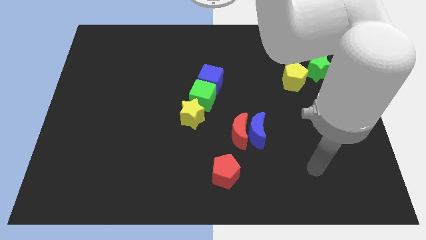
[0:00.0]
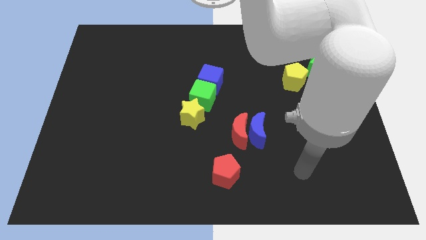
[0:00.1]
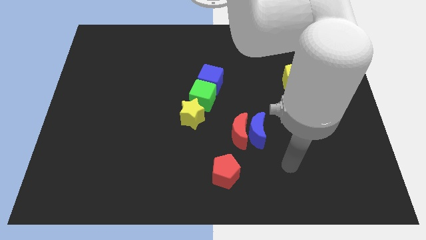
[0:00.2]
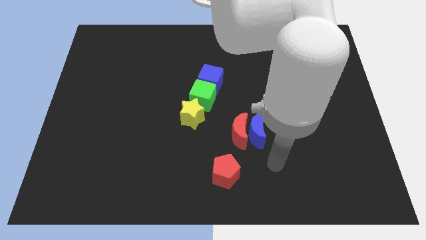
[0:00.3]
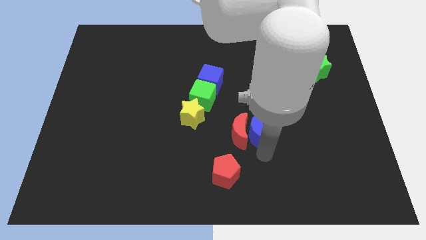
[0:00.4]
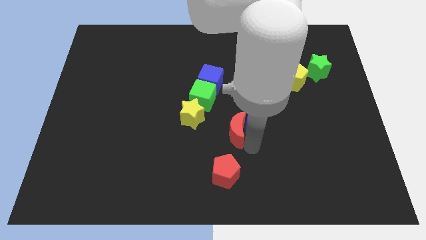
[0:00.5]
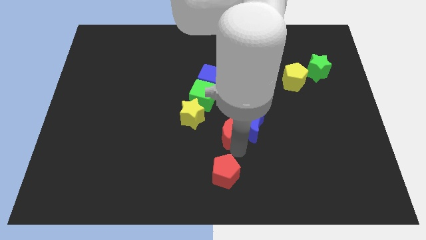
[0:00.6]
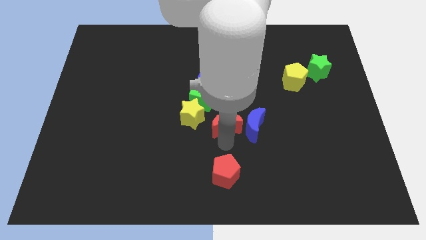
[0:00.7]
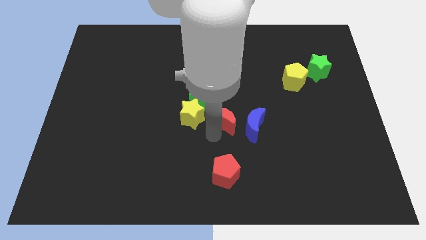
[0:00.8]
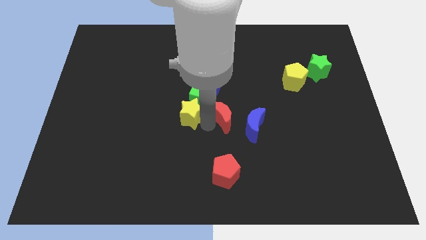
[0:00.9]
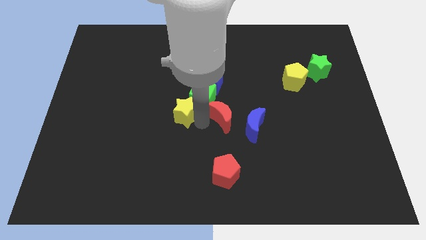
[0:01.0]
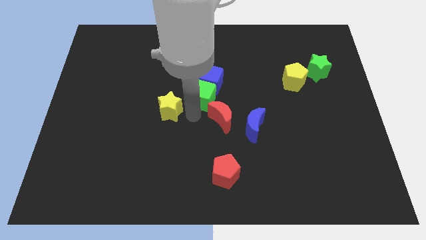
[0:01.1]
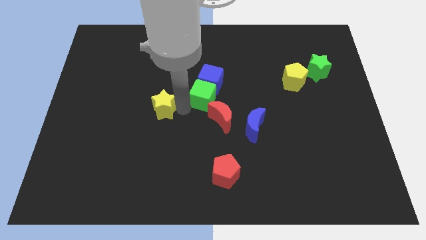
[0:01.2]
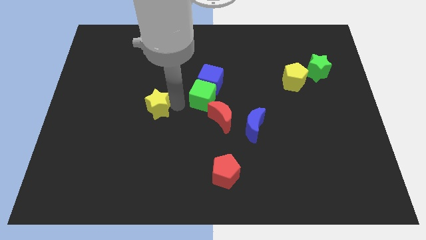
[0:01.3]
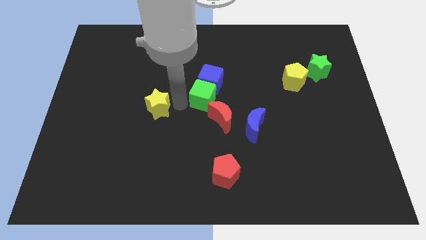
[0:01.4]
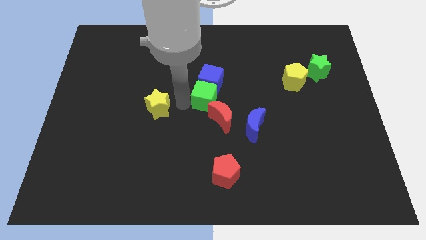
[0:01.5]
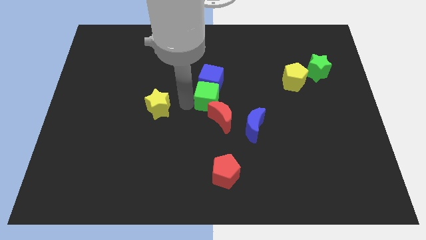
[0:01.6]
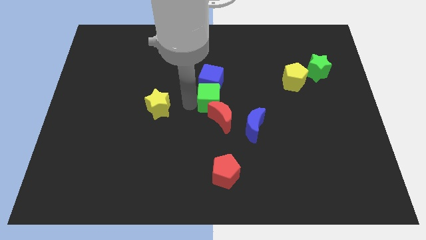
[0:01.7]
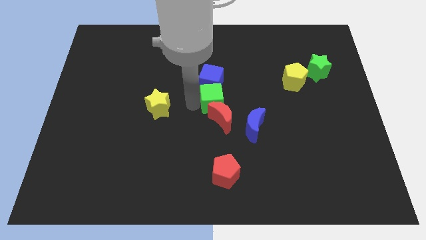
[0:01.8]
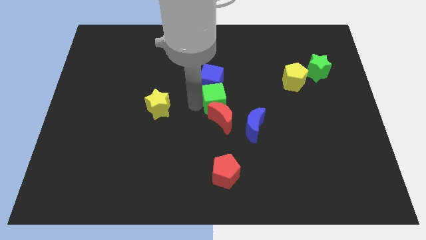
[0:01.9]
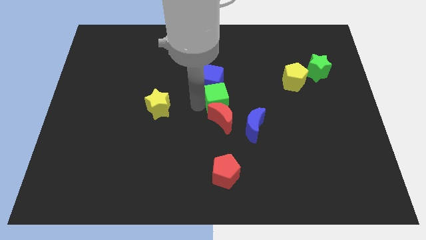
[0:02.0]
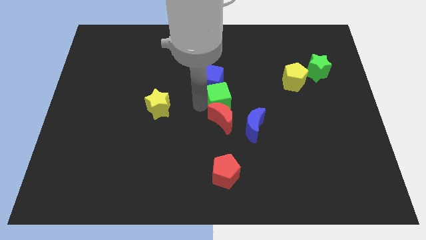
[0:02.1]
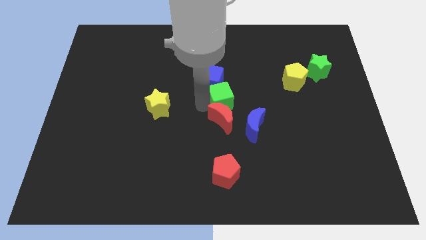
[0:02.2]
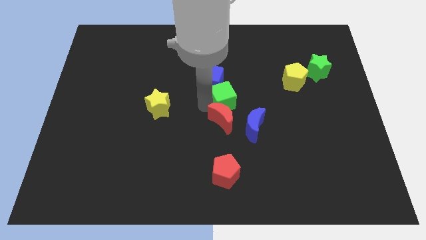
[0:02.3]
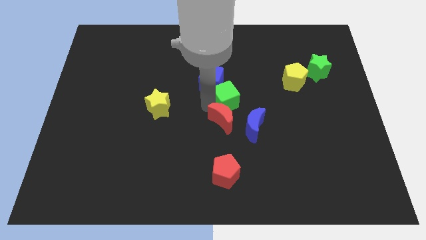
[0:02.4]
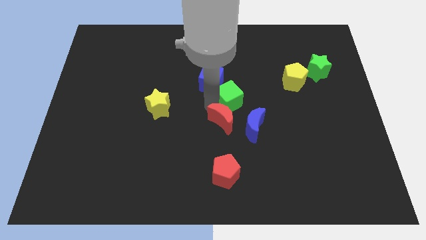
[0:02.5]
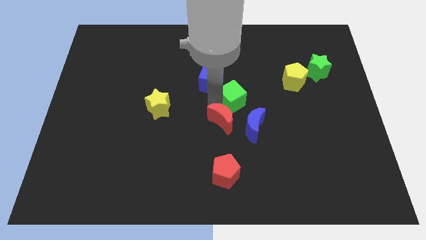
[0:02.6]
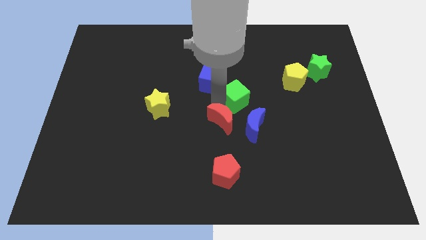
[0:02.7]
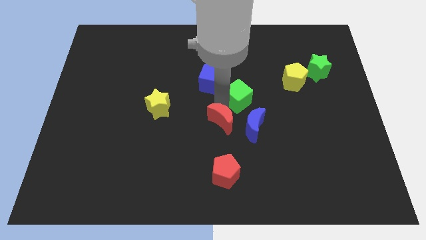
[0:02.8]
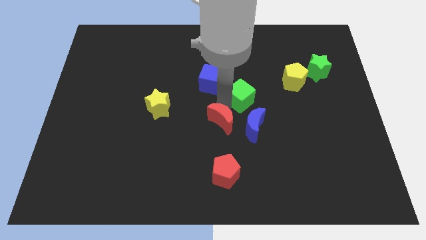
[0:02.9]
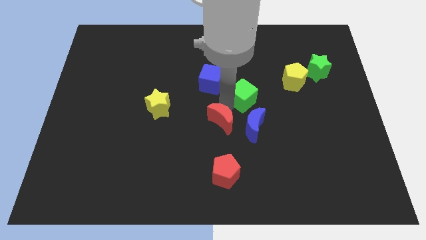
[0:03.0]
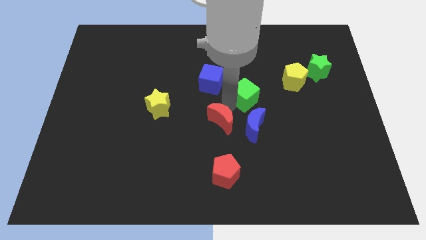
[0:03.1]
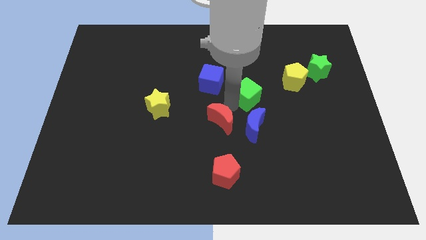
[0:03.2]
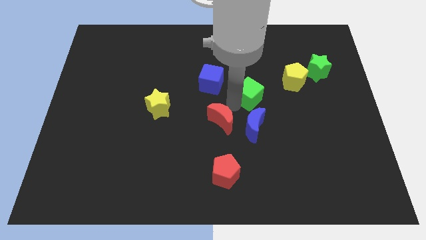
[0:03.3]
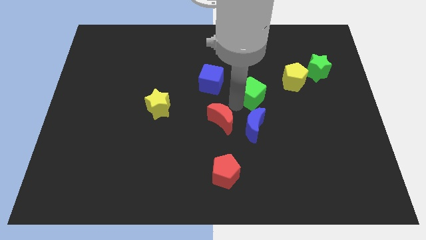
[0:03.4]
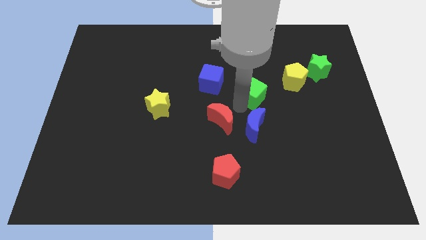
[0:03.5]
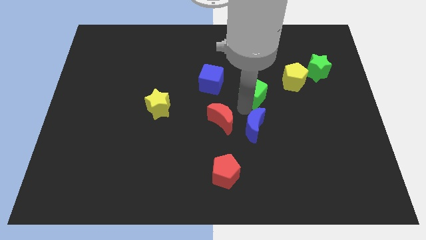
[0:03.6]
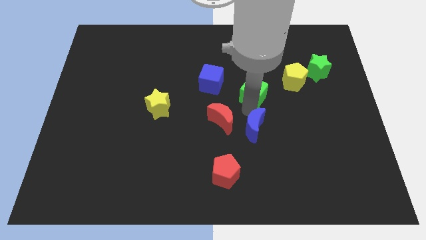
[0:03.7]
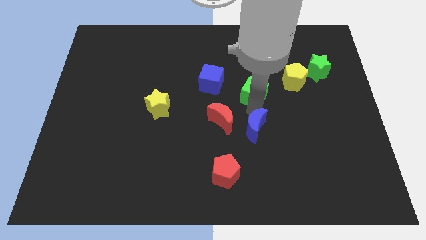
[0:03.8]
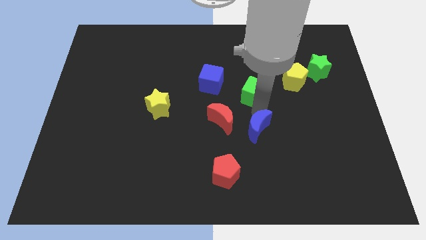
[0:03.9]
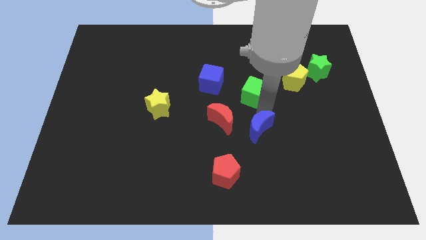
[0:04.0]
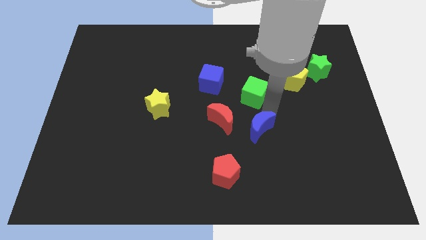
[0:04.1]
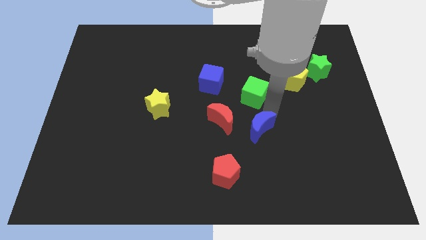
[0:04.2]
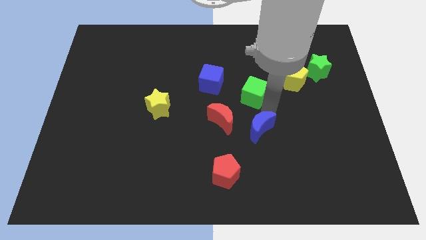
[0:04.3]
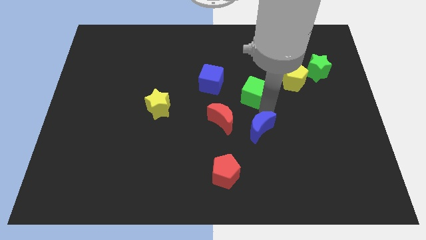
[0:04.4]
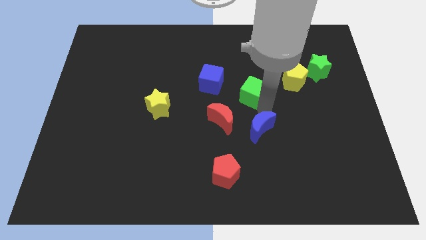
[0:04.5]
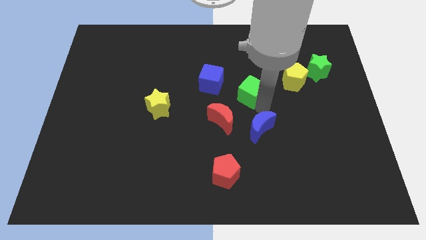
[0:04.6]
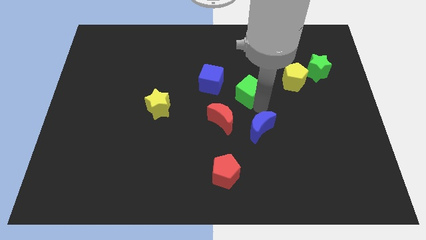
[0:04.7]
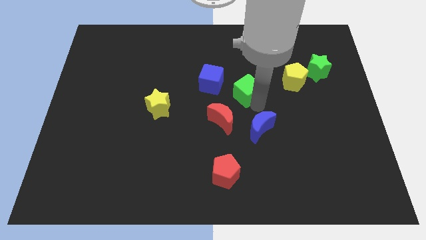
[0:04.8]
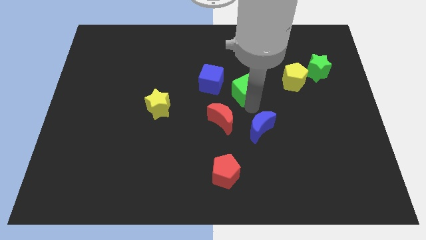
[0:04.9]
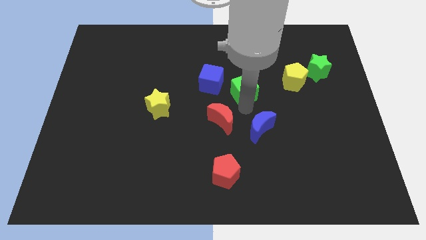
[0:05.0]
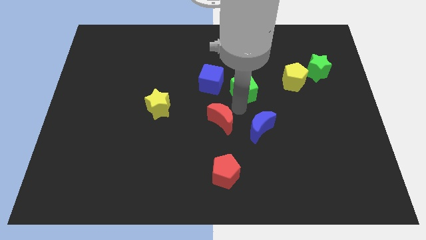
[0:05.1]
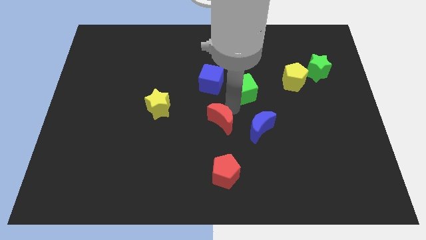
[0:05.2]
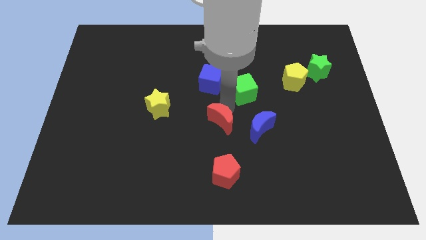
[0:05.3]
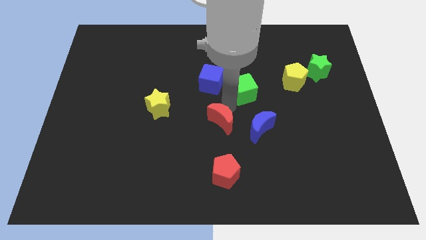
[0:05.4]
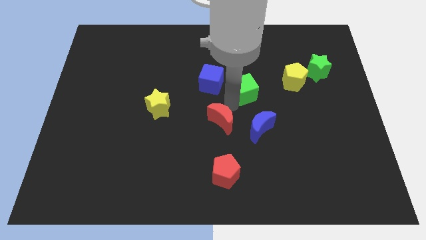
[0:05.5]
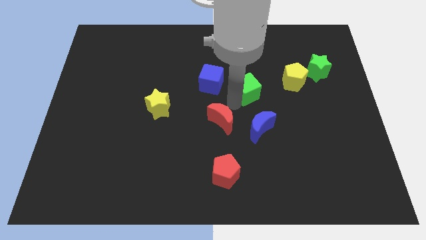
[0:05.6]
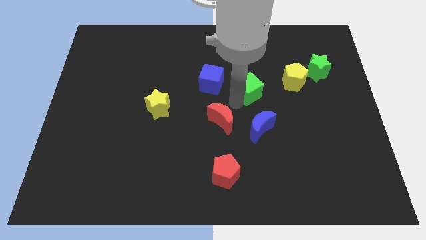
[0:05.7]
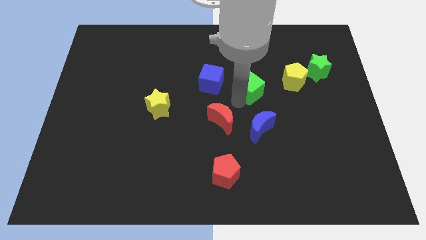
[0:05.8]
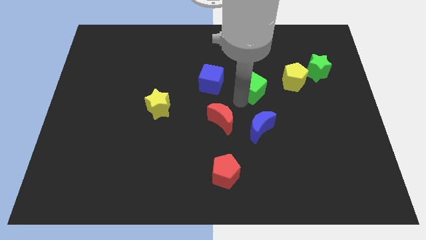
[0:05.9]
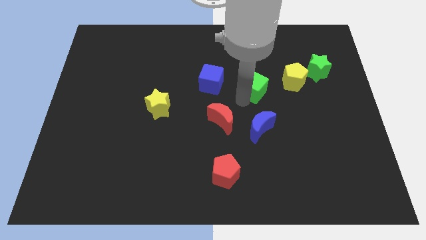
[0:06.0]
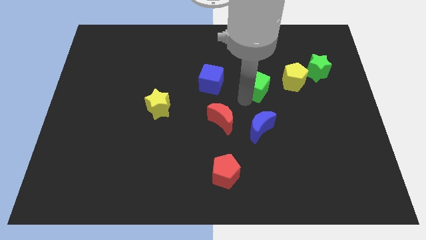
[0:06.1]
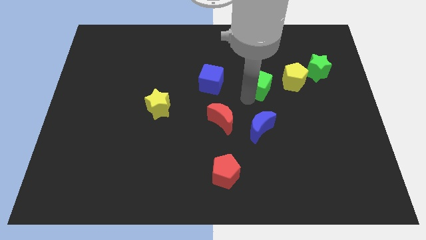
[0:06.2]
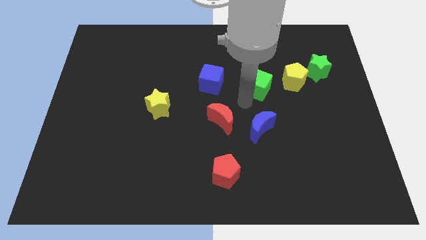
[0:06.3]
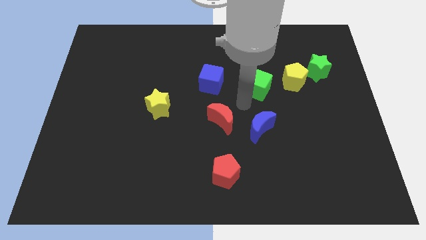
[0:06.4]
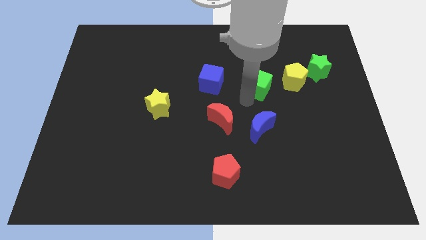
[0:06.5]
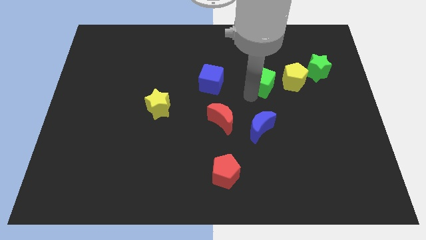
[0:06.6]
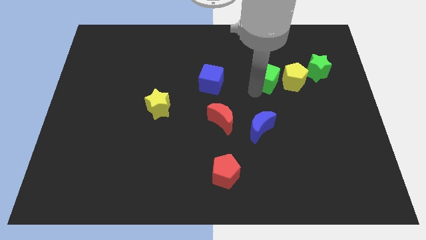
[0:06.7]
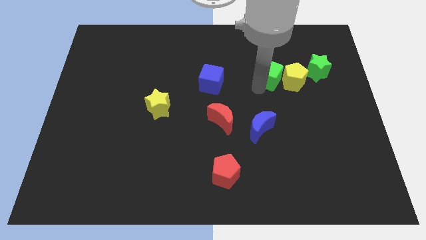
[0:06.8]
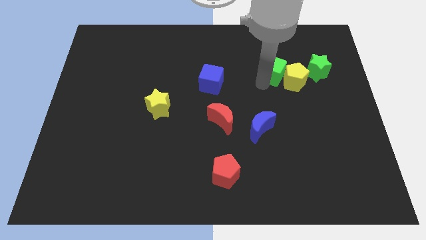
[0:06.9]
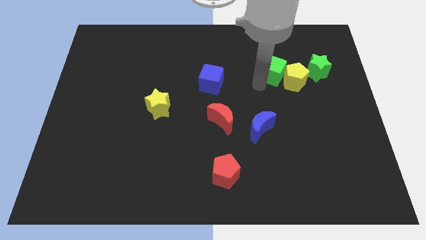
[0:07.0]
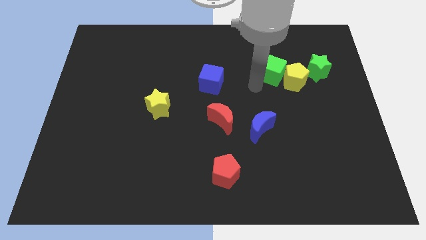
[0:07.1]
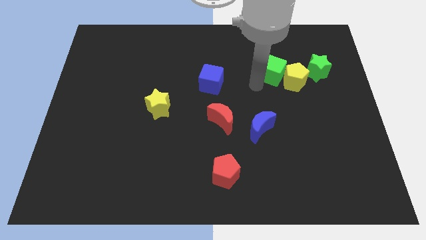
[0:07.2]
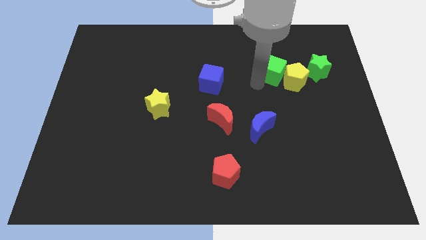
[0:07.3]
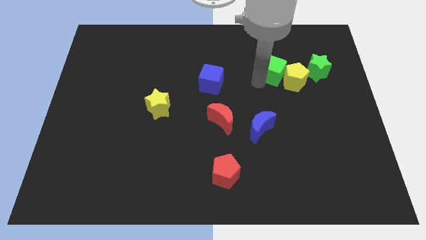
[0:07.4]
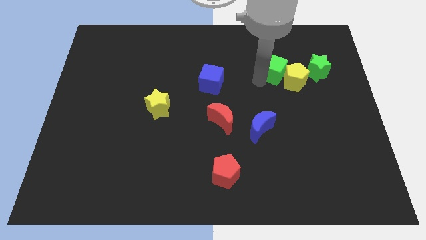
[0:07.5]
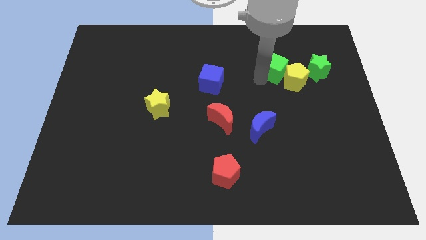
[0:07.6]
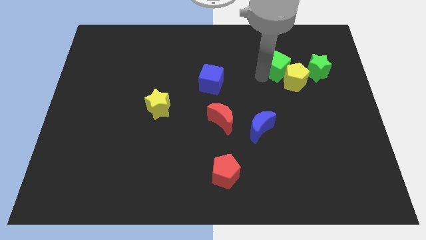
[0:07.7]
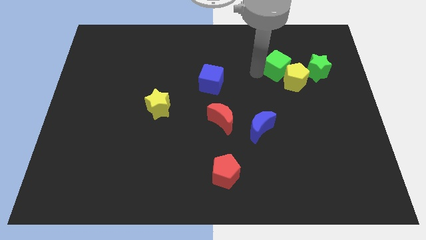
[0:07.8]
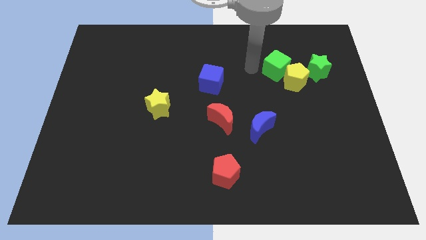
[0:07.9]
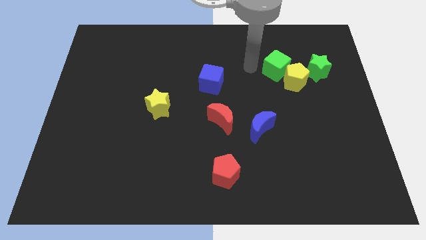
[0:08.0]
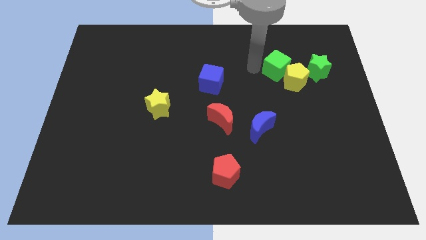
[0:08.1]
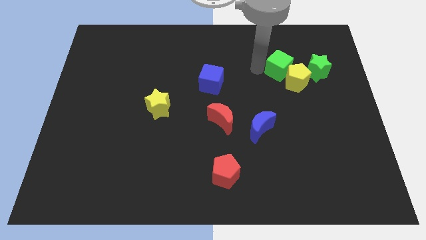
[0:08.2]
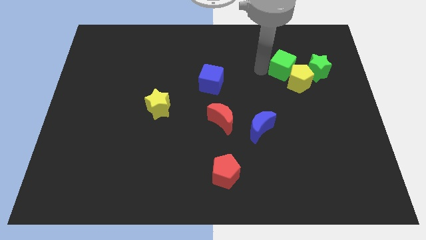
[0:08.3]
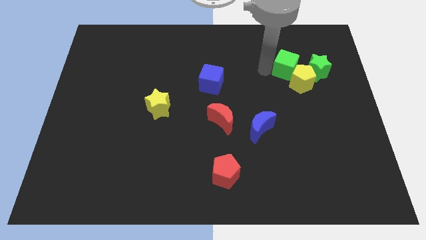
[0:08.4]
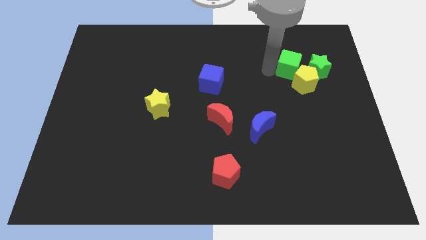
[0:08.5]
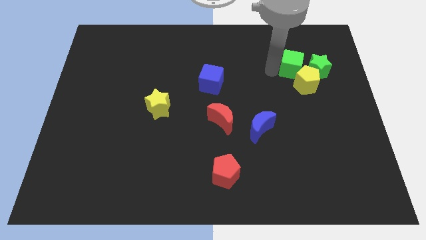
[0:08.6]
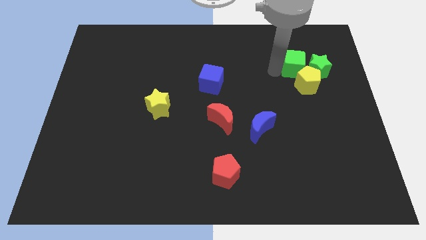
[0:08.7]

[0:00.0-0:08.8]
move the green cube next to the green star
